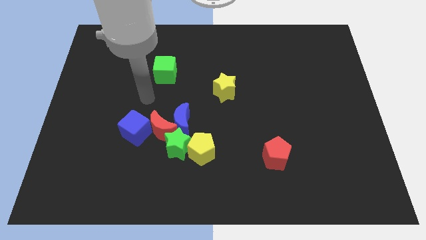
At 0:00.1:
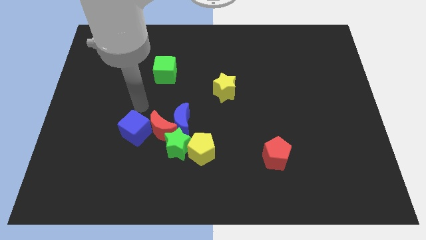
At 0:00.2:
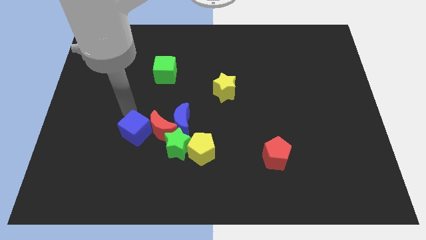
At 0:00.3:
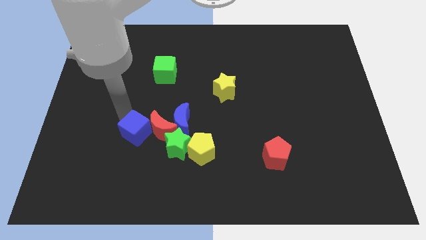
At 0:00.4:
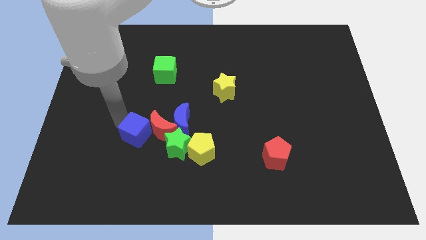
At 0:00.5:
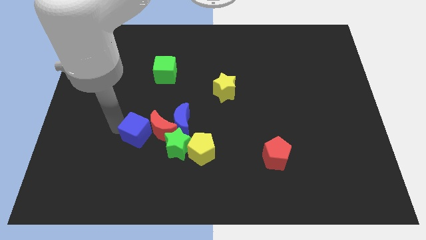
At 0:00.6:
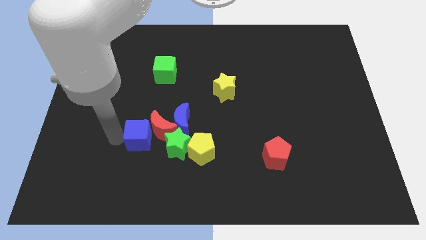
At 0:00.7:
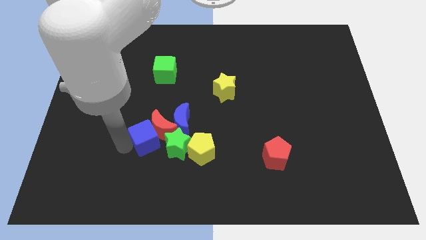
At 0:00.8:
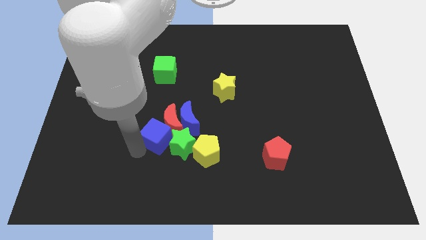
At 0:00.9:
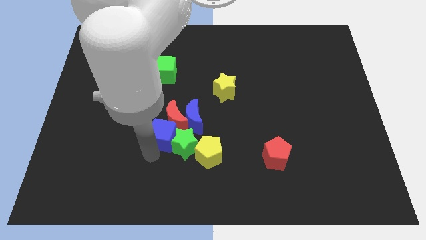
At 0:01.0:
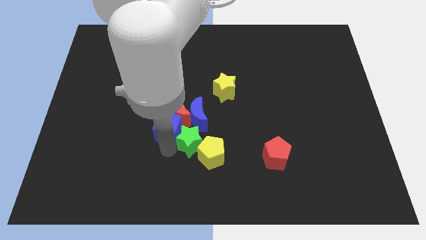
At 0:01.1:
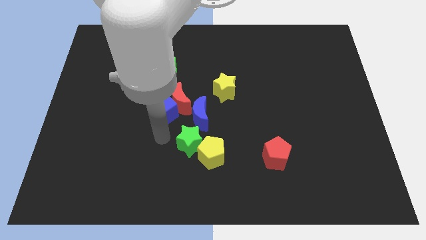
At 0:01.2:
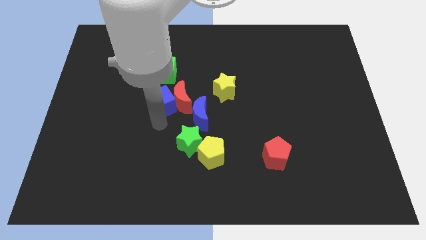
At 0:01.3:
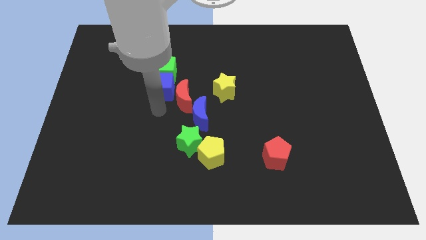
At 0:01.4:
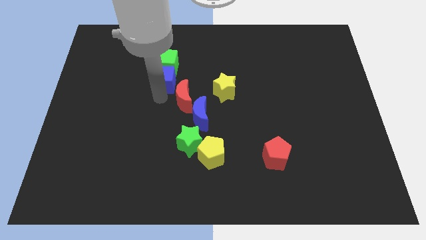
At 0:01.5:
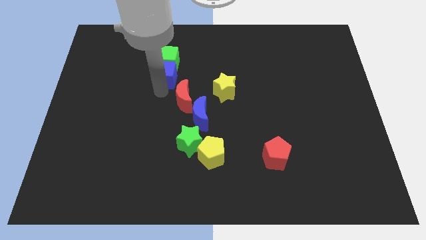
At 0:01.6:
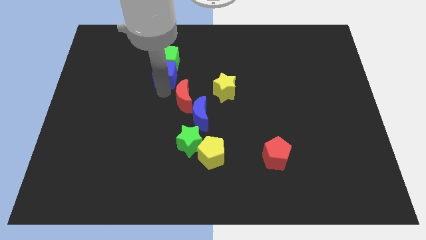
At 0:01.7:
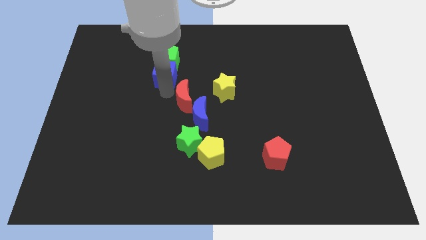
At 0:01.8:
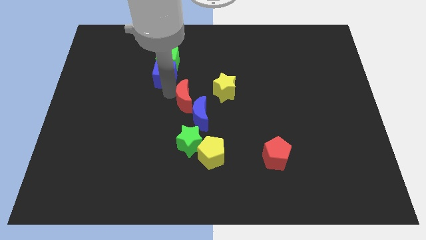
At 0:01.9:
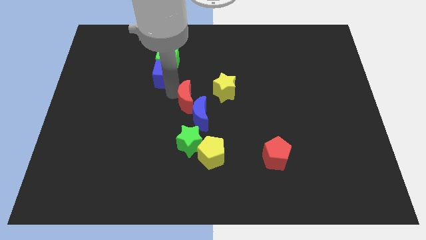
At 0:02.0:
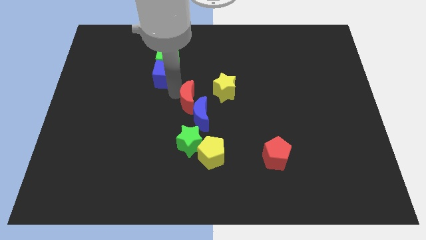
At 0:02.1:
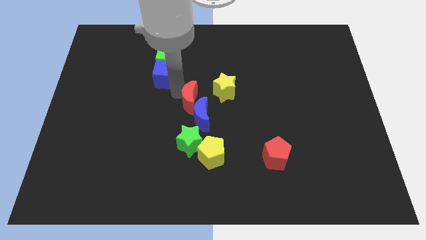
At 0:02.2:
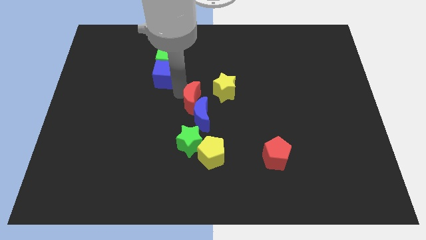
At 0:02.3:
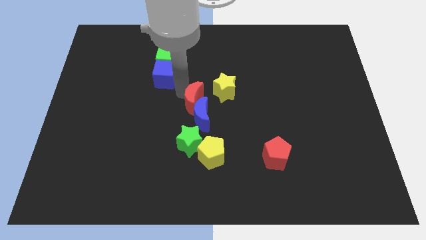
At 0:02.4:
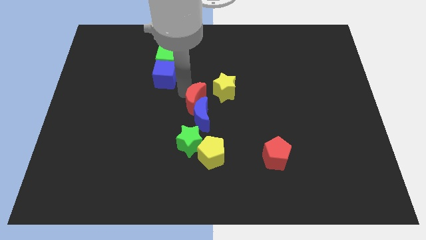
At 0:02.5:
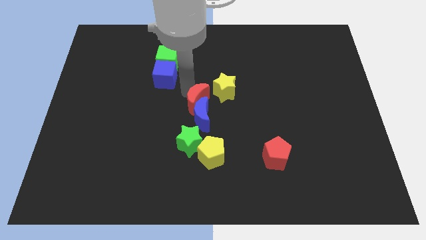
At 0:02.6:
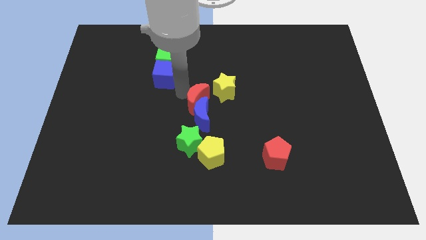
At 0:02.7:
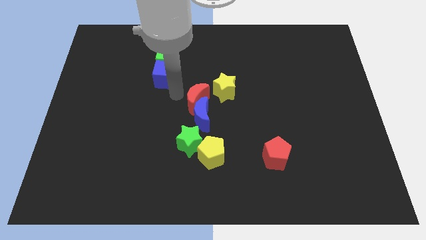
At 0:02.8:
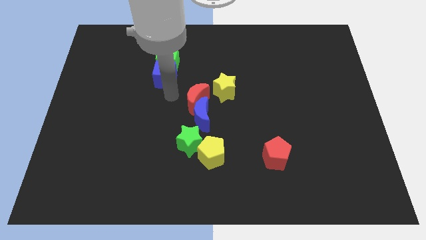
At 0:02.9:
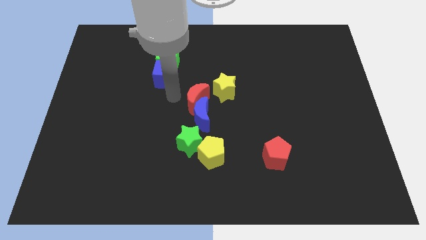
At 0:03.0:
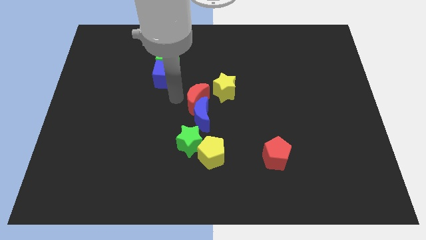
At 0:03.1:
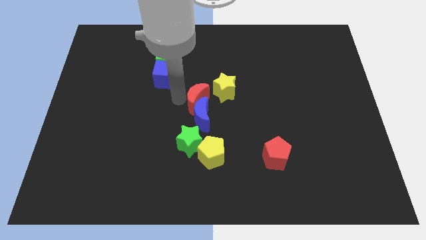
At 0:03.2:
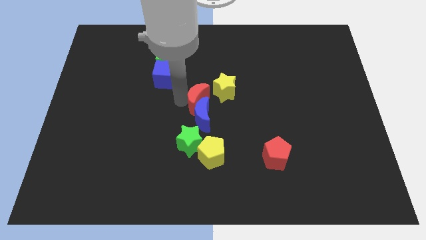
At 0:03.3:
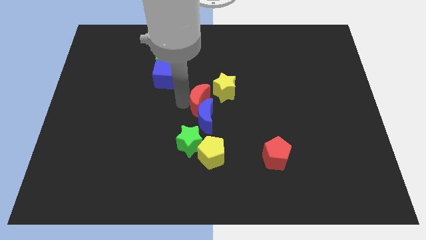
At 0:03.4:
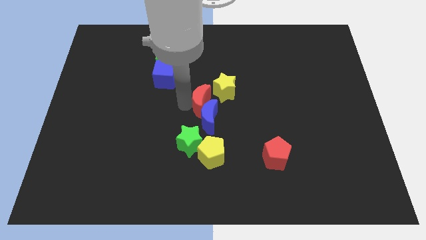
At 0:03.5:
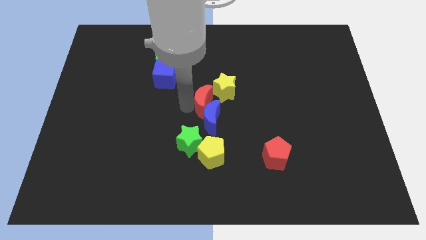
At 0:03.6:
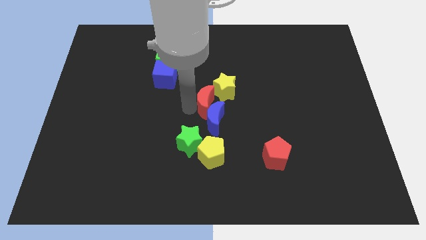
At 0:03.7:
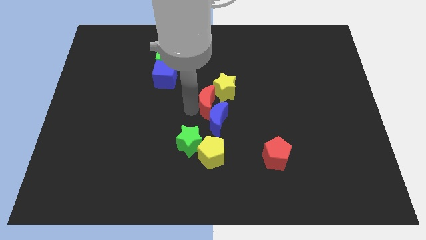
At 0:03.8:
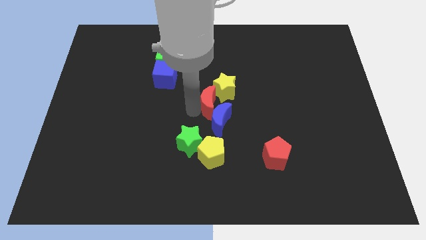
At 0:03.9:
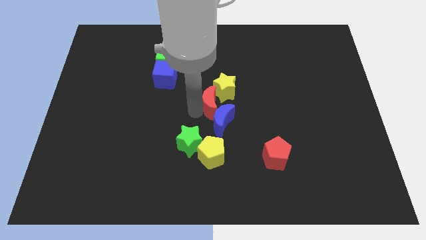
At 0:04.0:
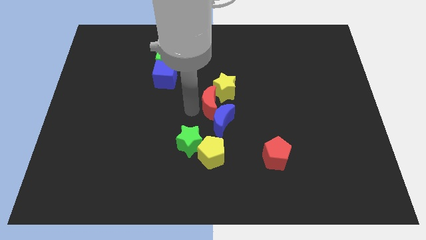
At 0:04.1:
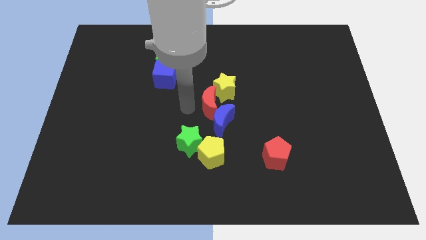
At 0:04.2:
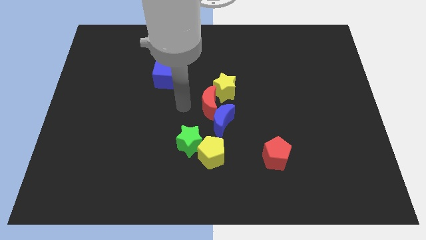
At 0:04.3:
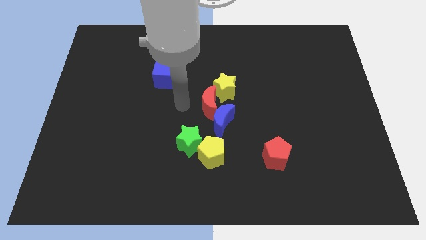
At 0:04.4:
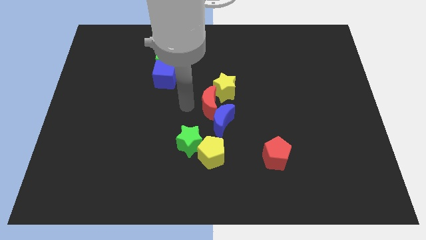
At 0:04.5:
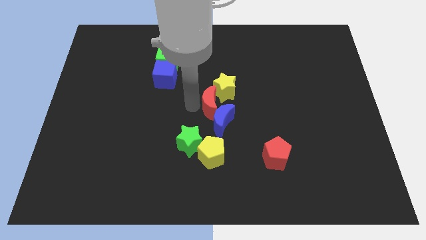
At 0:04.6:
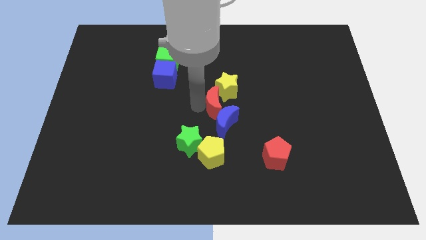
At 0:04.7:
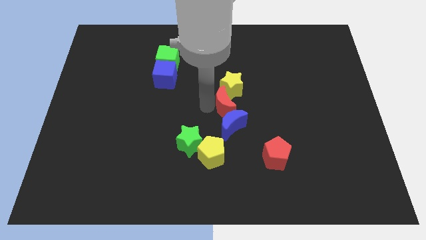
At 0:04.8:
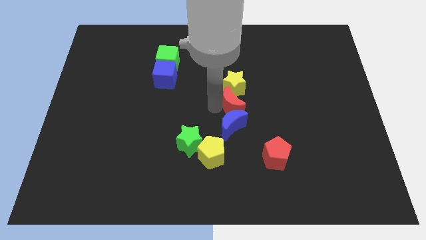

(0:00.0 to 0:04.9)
put the red moon to the bottom right side of the yellow star

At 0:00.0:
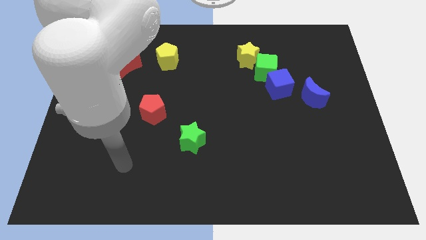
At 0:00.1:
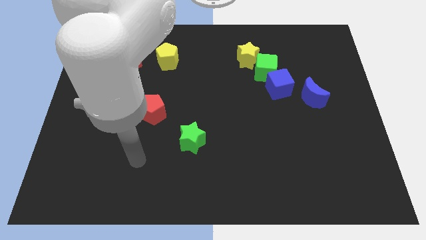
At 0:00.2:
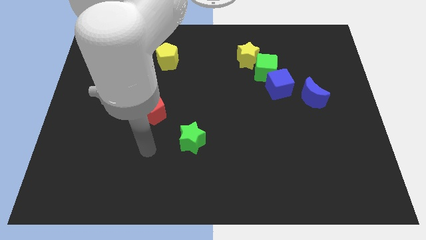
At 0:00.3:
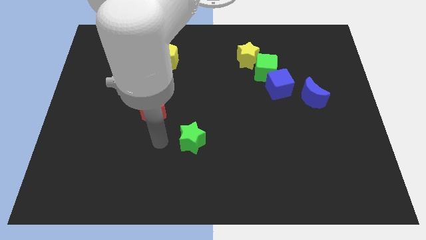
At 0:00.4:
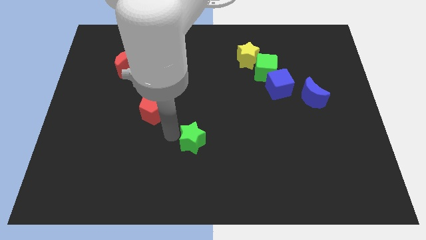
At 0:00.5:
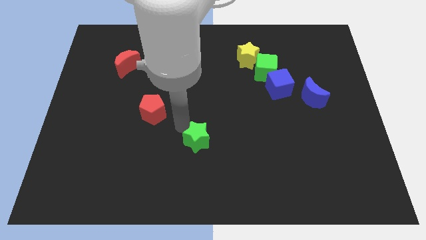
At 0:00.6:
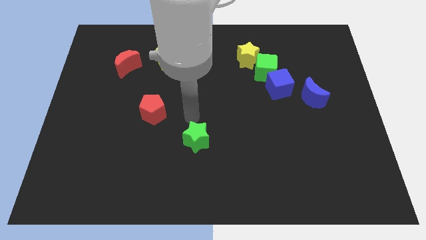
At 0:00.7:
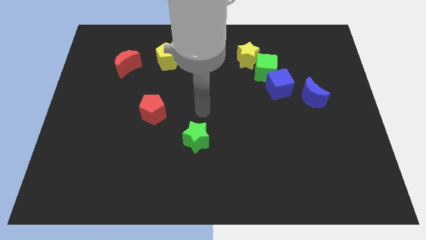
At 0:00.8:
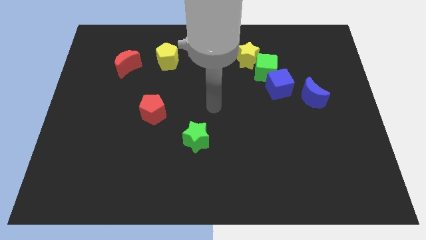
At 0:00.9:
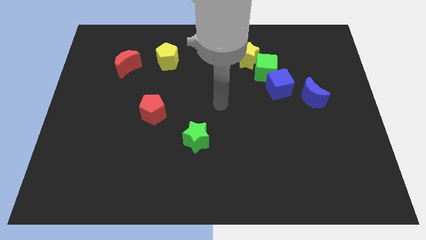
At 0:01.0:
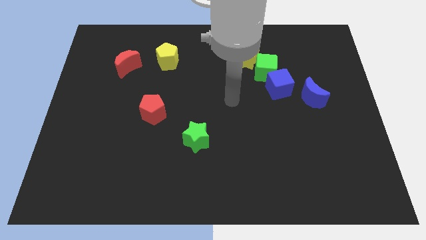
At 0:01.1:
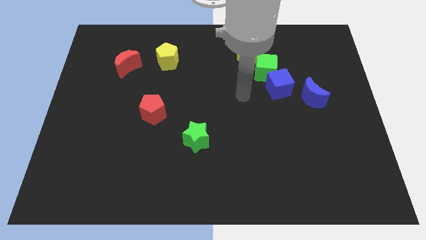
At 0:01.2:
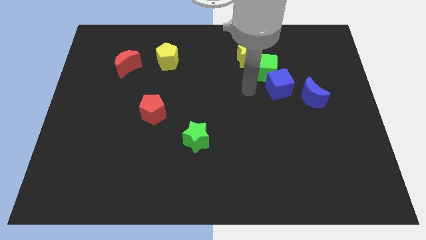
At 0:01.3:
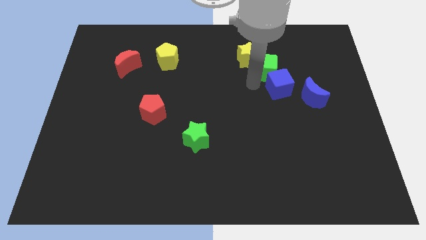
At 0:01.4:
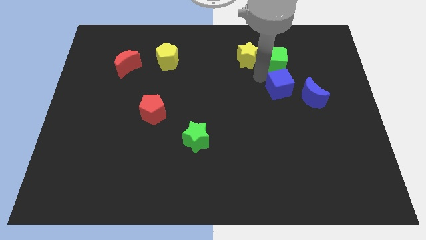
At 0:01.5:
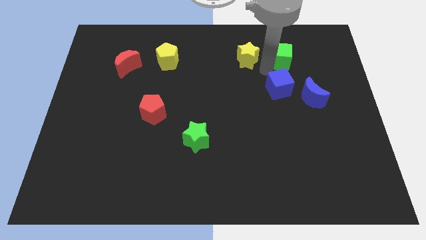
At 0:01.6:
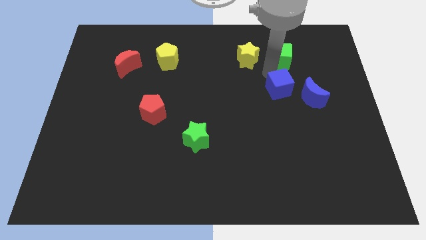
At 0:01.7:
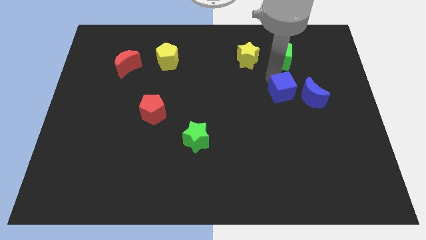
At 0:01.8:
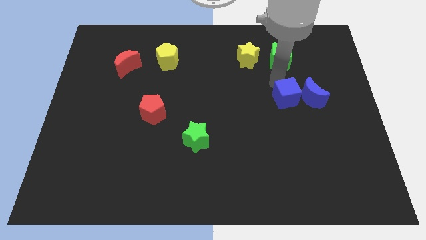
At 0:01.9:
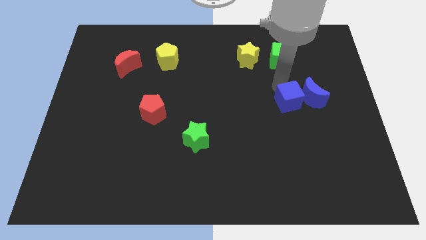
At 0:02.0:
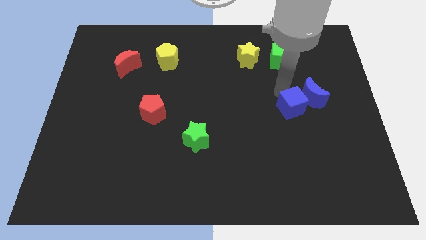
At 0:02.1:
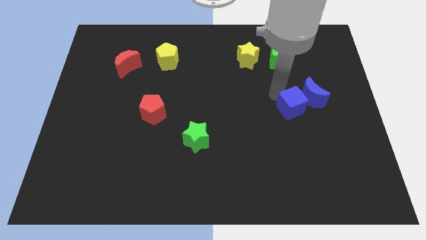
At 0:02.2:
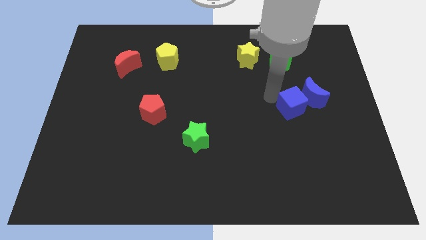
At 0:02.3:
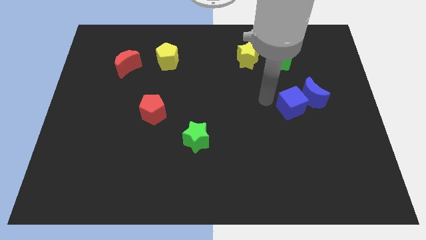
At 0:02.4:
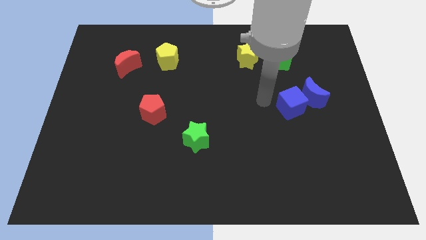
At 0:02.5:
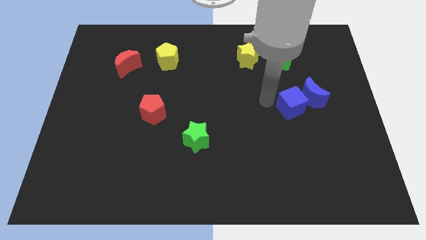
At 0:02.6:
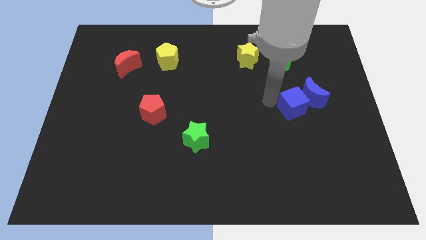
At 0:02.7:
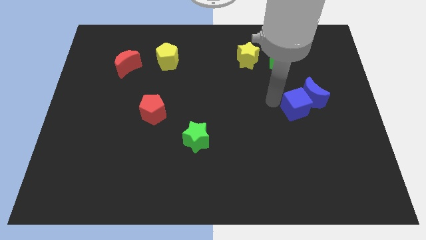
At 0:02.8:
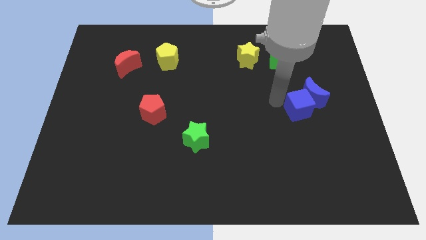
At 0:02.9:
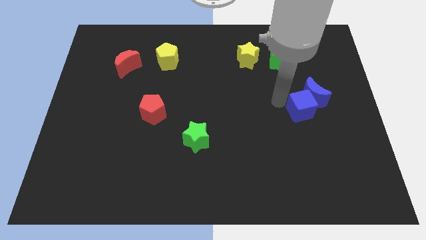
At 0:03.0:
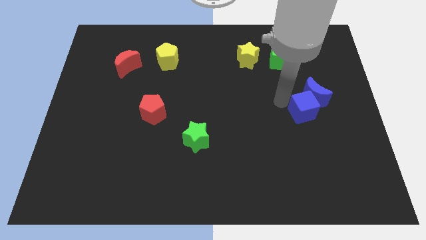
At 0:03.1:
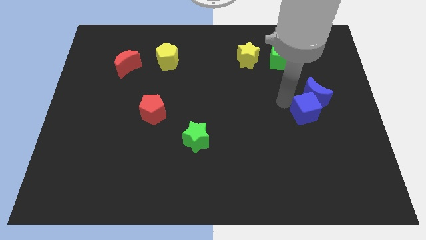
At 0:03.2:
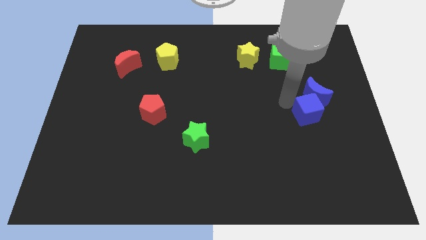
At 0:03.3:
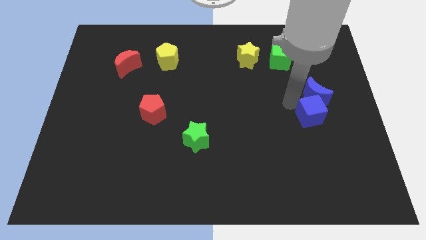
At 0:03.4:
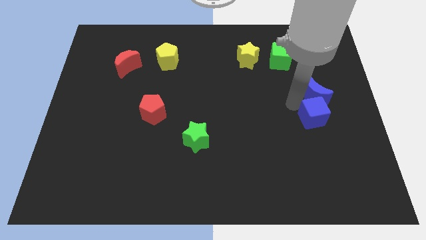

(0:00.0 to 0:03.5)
push the blue cube diagonally down and to the right of the blue moon
